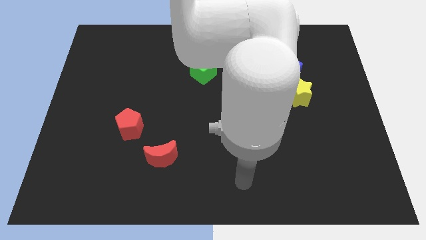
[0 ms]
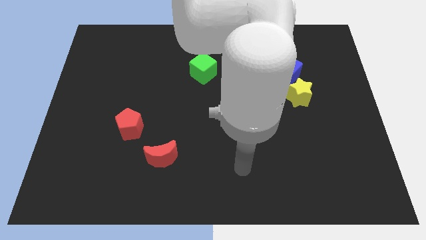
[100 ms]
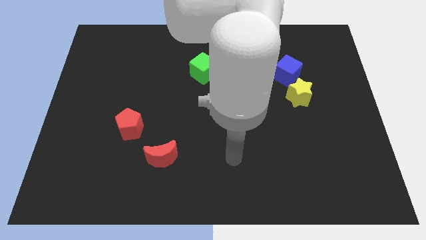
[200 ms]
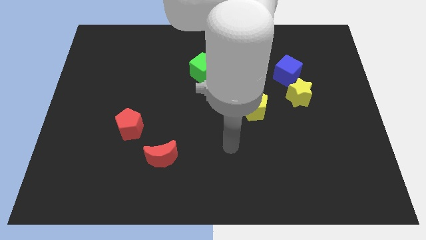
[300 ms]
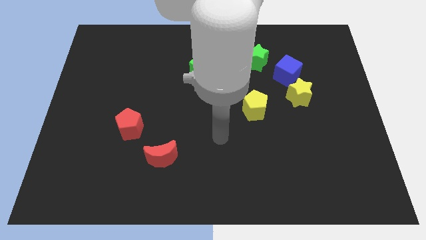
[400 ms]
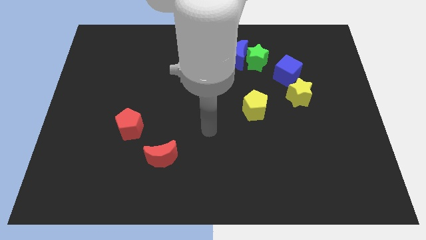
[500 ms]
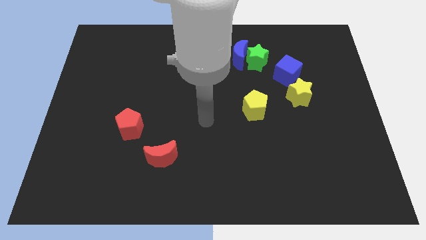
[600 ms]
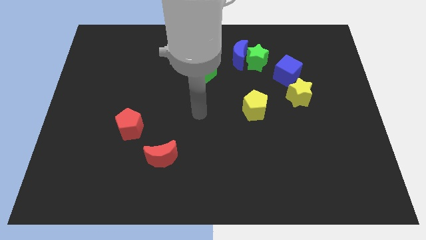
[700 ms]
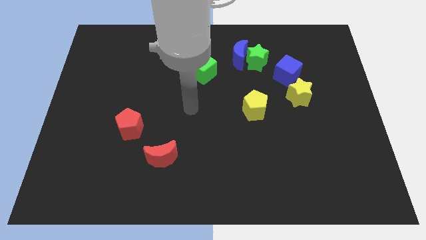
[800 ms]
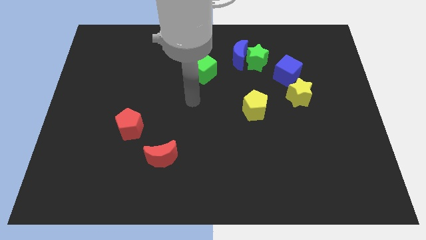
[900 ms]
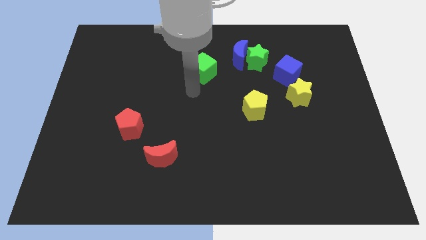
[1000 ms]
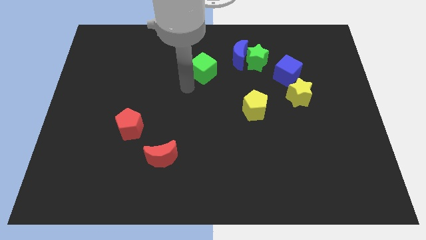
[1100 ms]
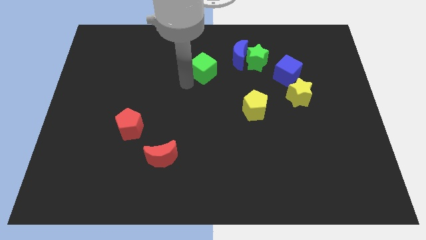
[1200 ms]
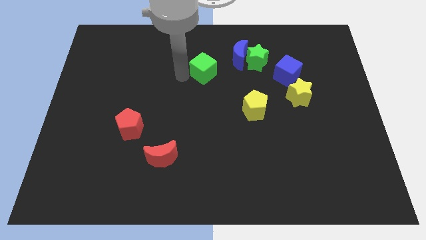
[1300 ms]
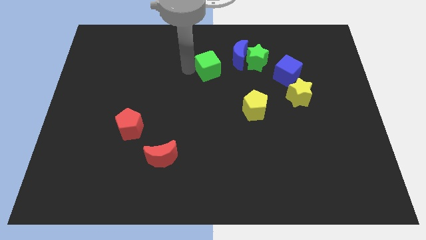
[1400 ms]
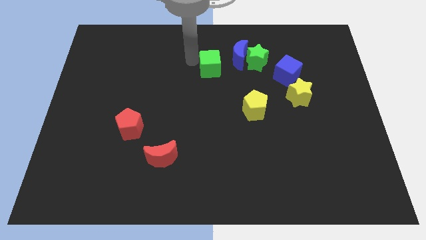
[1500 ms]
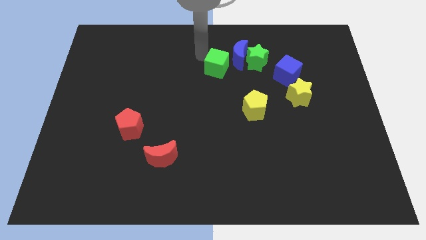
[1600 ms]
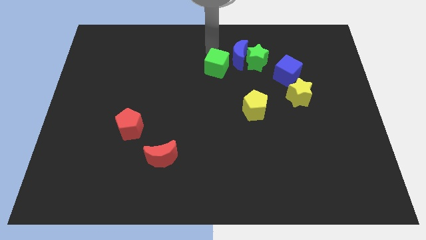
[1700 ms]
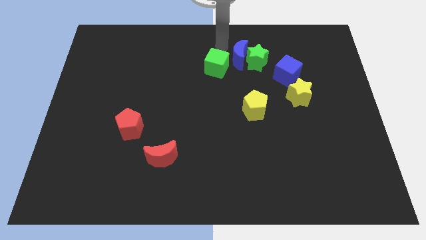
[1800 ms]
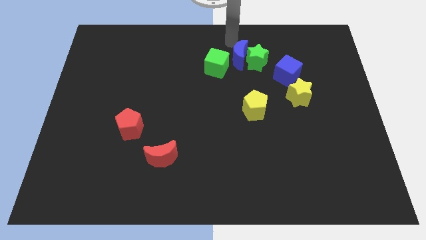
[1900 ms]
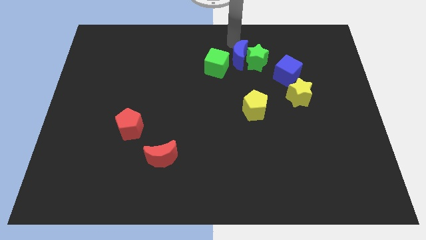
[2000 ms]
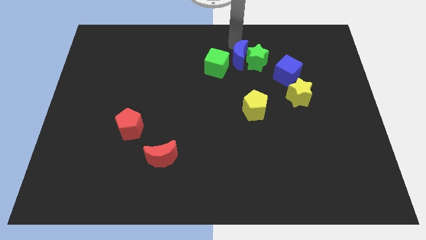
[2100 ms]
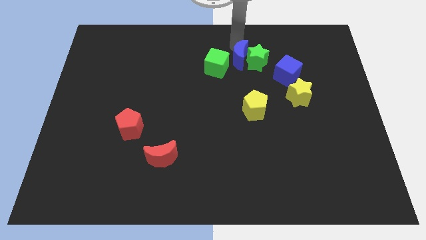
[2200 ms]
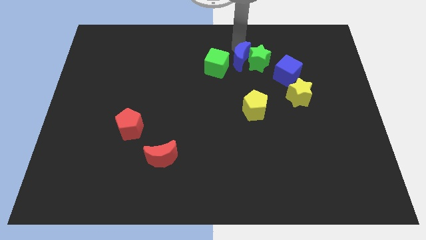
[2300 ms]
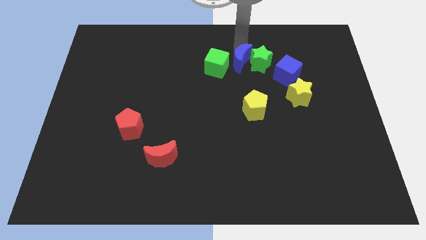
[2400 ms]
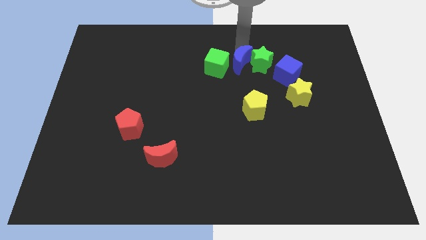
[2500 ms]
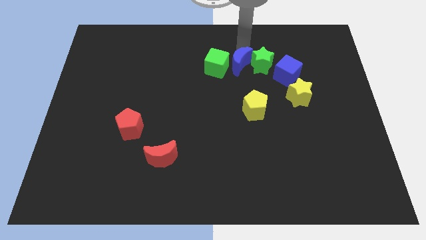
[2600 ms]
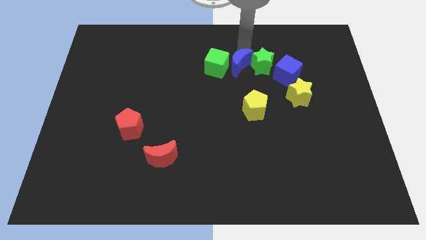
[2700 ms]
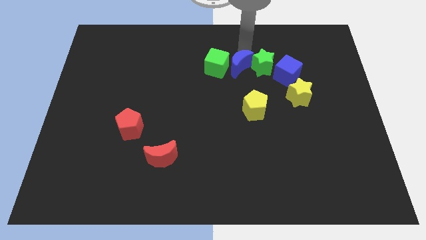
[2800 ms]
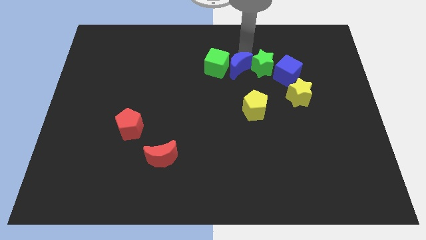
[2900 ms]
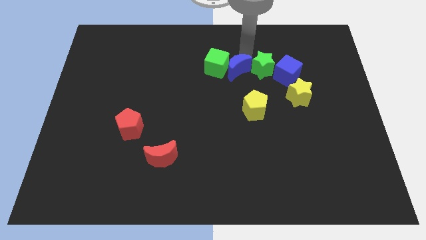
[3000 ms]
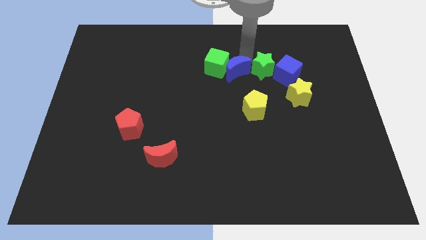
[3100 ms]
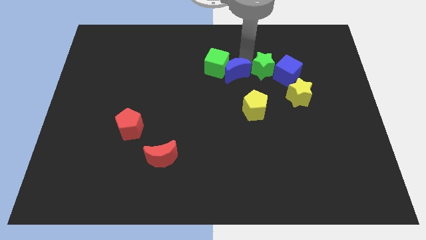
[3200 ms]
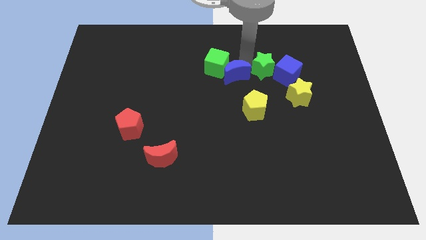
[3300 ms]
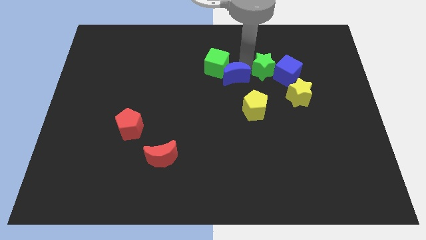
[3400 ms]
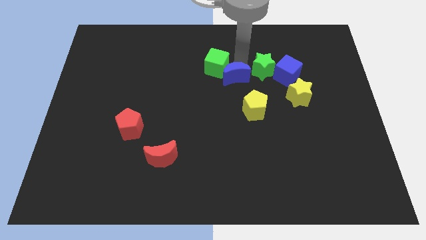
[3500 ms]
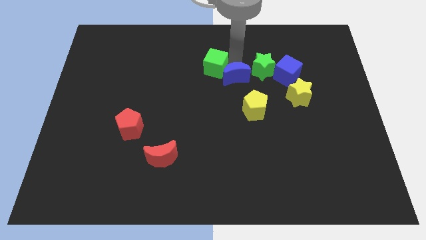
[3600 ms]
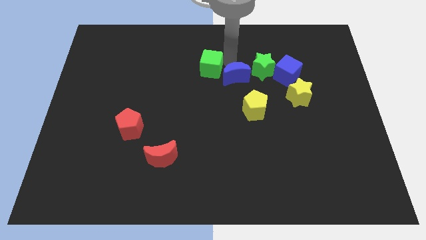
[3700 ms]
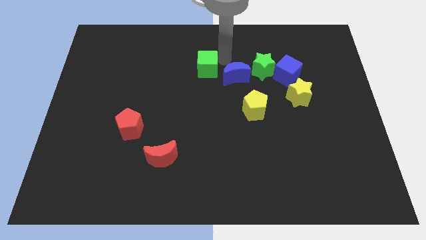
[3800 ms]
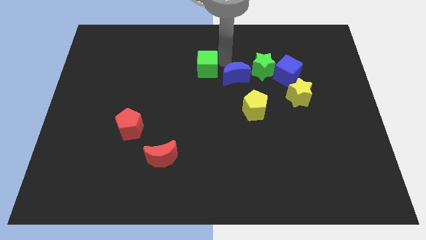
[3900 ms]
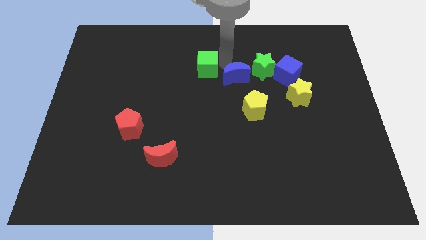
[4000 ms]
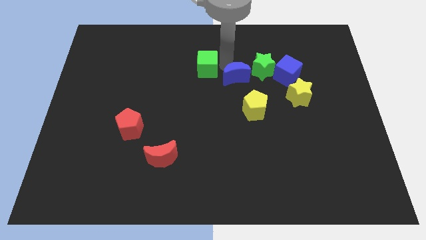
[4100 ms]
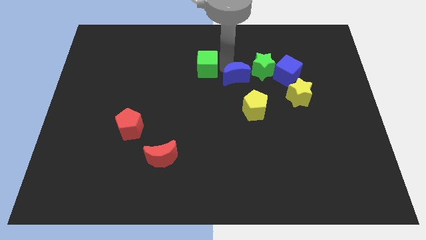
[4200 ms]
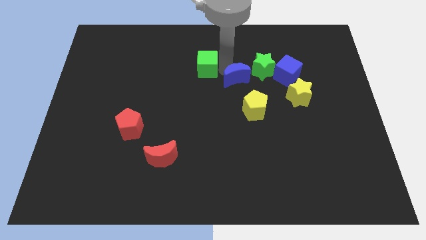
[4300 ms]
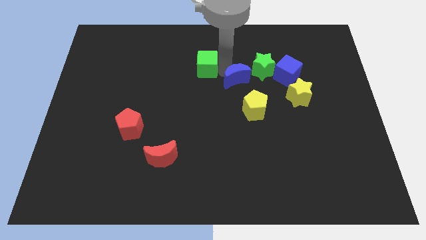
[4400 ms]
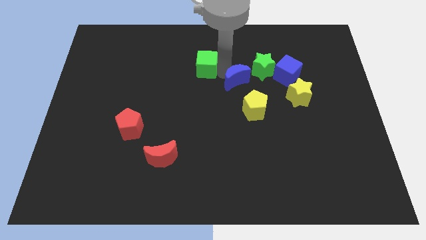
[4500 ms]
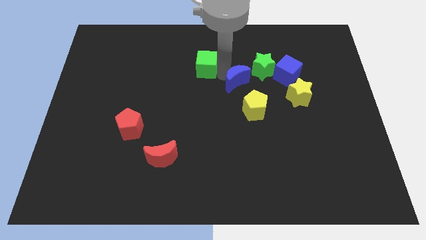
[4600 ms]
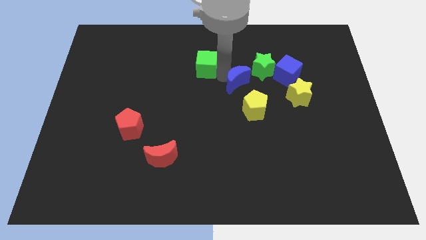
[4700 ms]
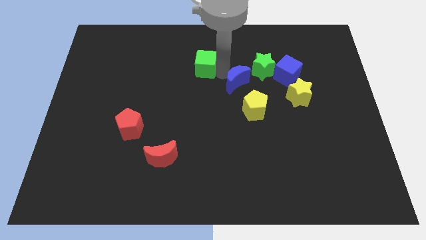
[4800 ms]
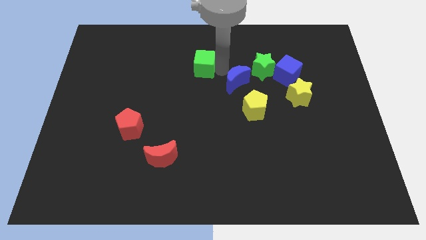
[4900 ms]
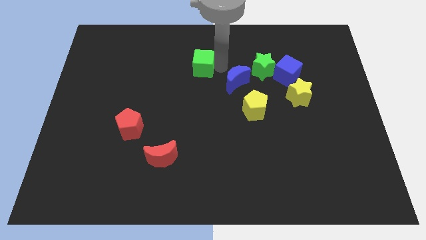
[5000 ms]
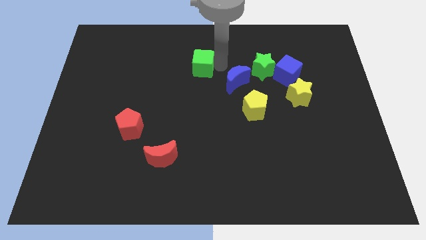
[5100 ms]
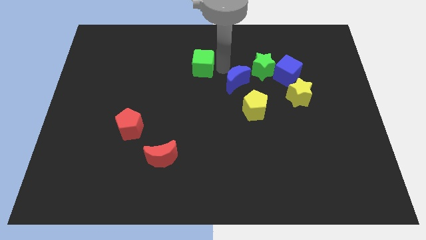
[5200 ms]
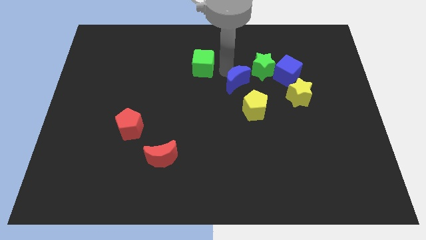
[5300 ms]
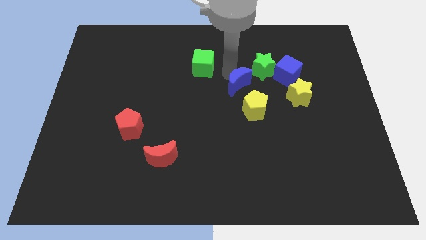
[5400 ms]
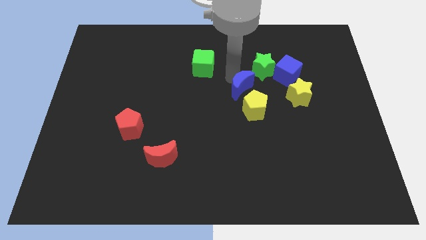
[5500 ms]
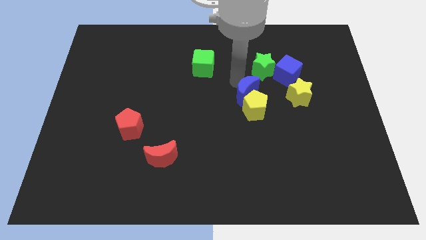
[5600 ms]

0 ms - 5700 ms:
move the blue moon close to the yellow pentagon

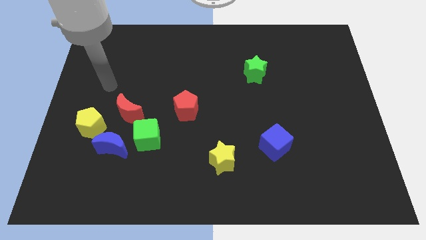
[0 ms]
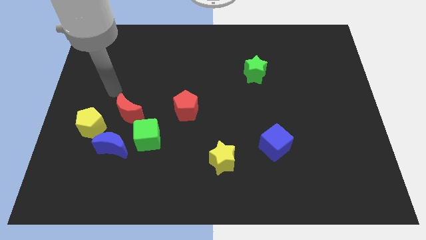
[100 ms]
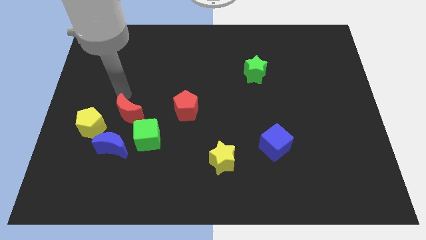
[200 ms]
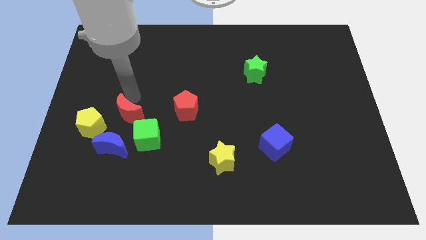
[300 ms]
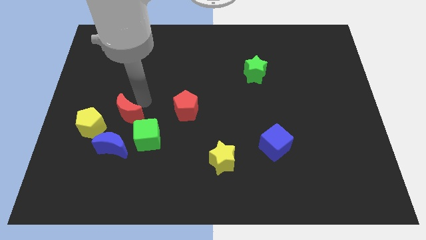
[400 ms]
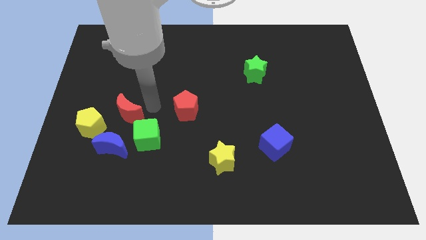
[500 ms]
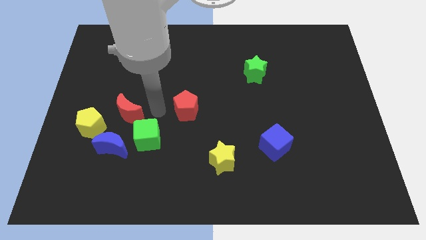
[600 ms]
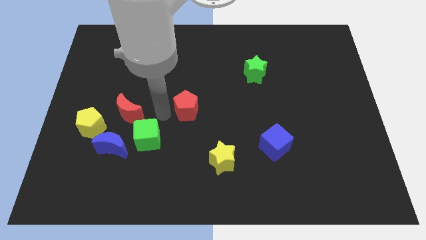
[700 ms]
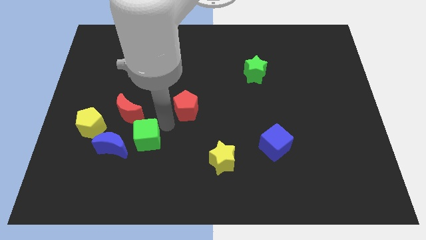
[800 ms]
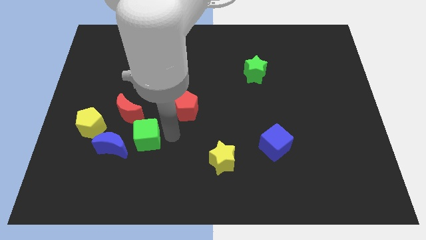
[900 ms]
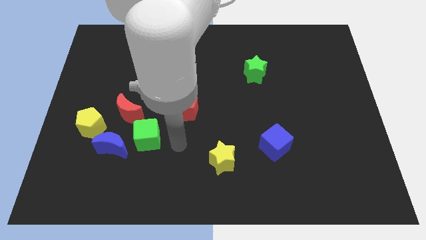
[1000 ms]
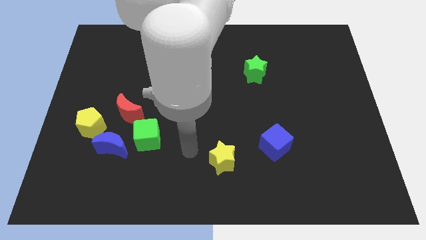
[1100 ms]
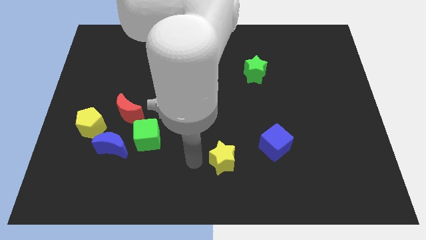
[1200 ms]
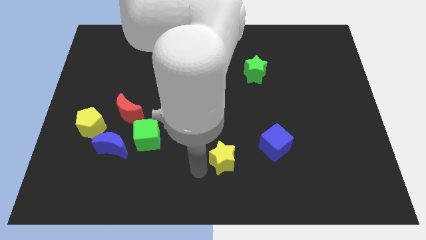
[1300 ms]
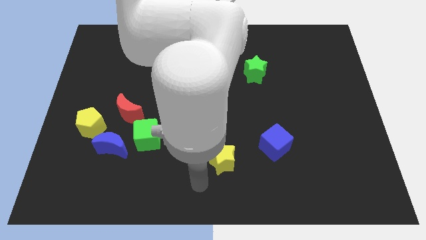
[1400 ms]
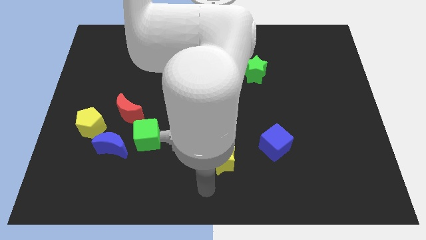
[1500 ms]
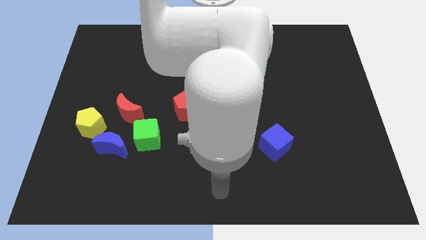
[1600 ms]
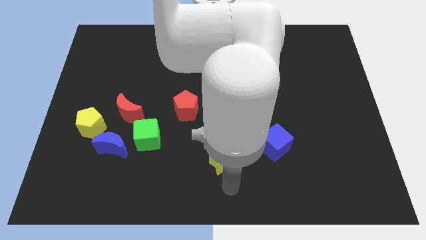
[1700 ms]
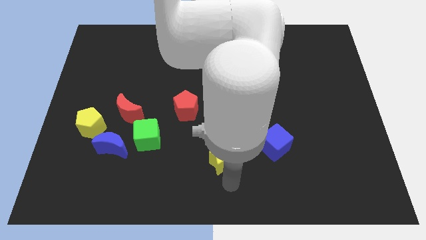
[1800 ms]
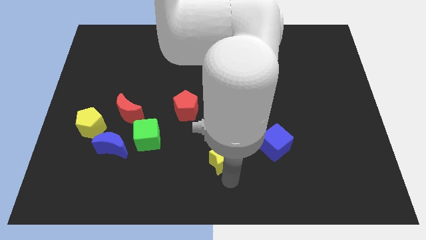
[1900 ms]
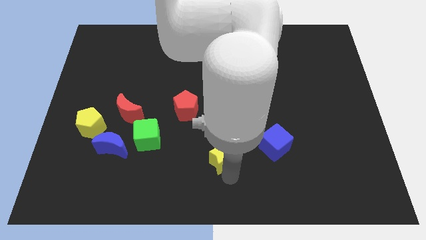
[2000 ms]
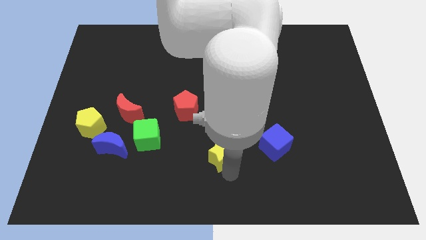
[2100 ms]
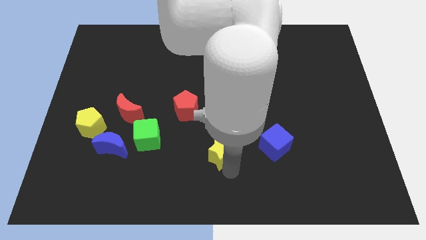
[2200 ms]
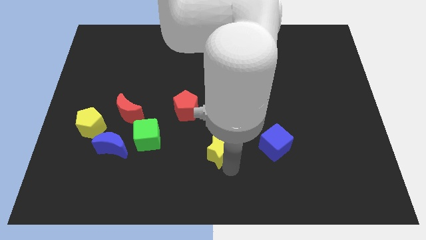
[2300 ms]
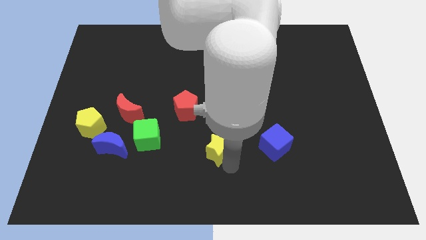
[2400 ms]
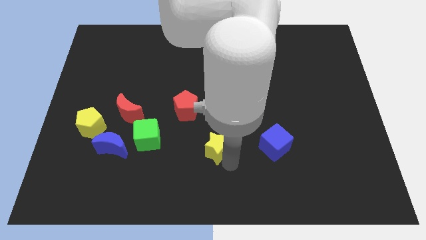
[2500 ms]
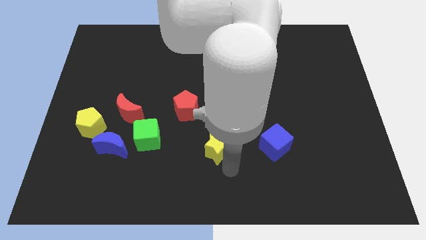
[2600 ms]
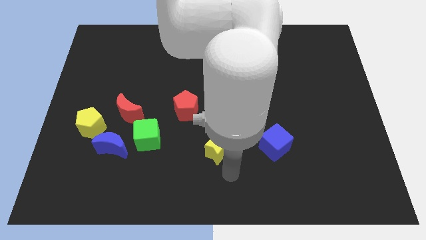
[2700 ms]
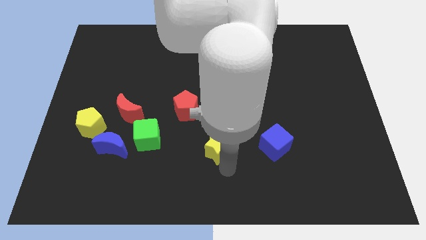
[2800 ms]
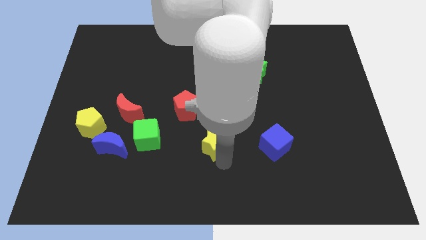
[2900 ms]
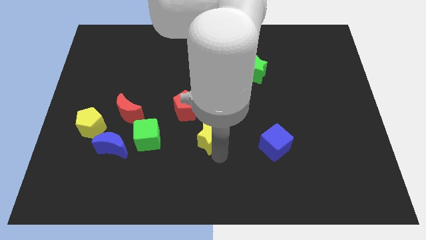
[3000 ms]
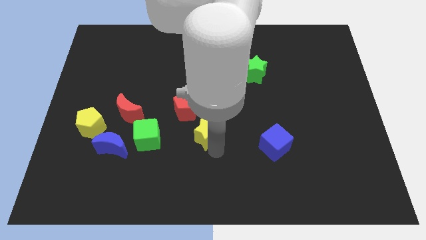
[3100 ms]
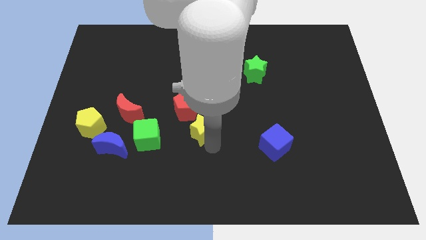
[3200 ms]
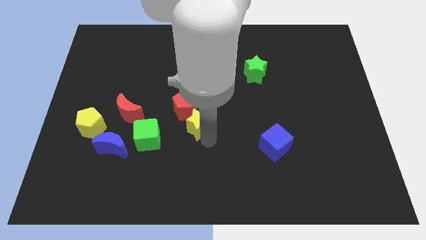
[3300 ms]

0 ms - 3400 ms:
put the yellow star towards the red pentagon
